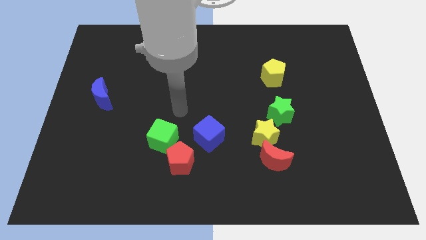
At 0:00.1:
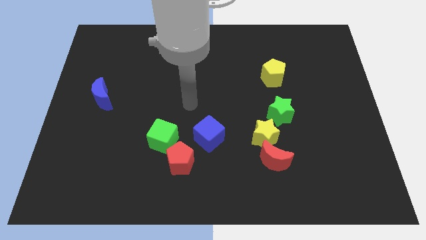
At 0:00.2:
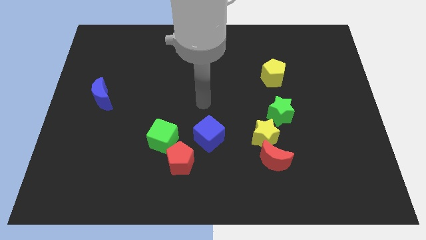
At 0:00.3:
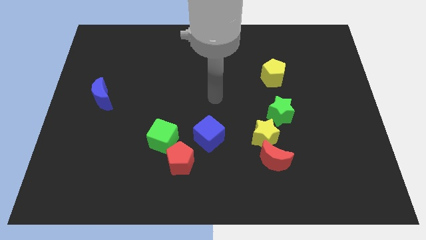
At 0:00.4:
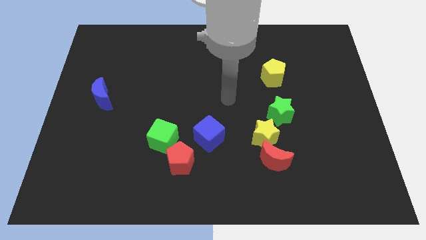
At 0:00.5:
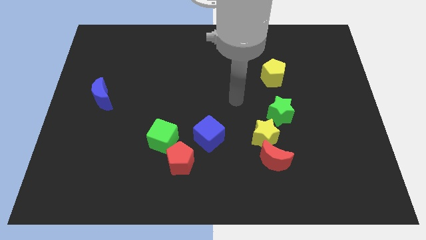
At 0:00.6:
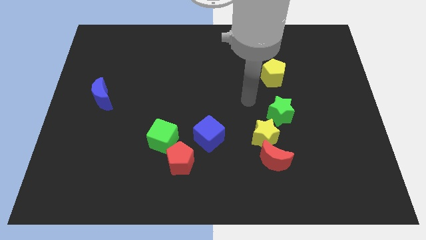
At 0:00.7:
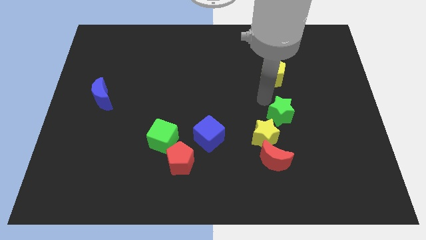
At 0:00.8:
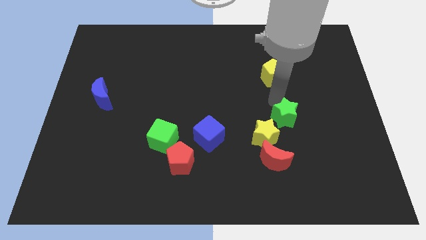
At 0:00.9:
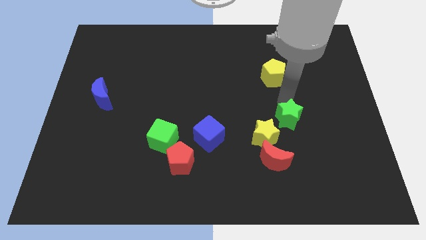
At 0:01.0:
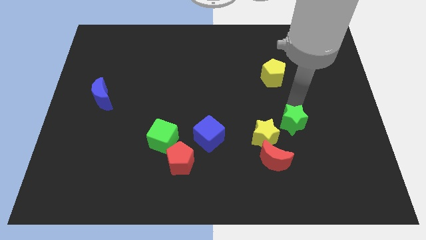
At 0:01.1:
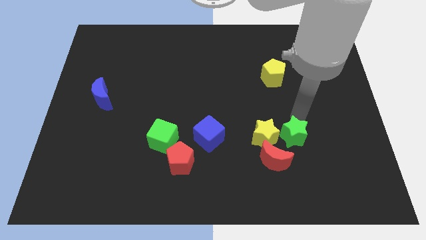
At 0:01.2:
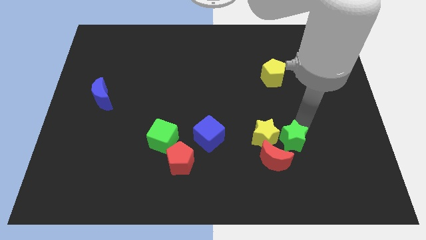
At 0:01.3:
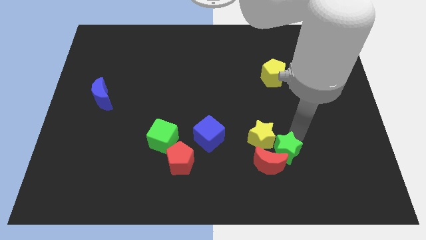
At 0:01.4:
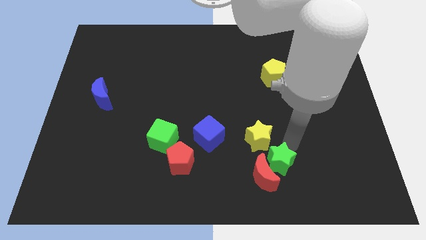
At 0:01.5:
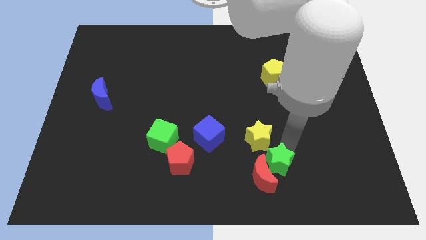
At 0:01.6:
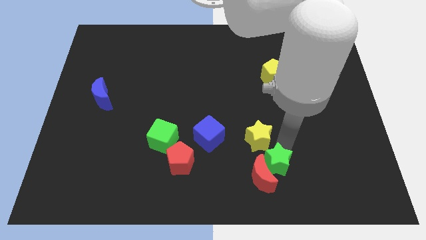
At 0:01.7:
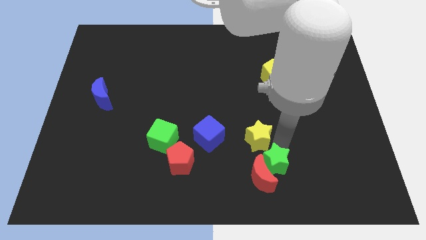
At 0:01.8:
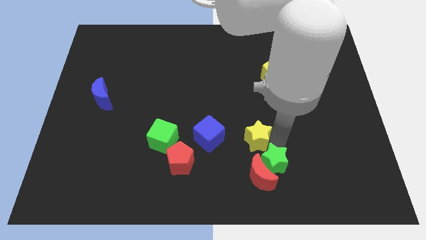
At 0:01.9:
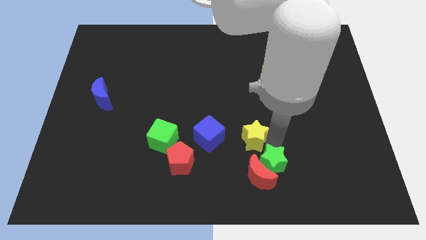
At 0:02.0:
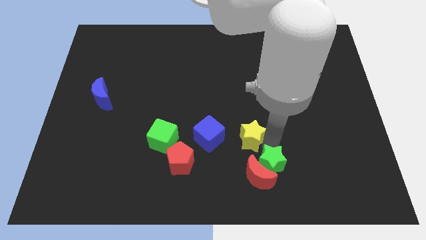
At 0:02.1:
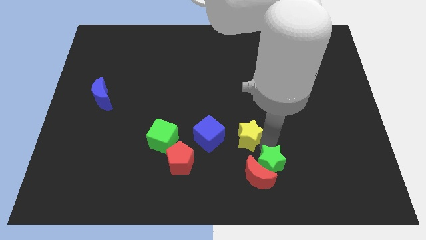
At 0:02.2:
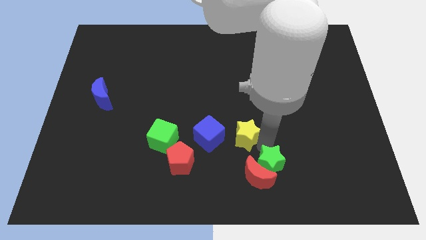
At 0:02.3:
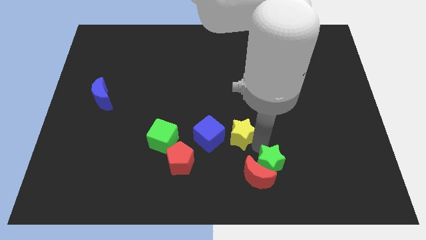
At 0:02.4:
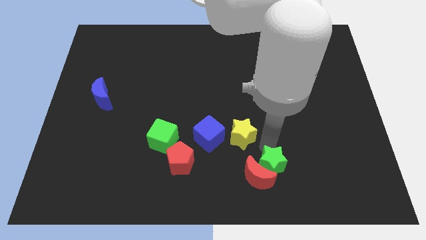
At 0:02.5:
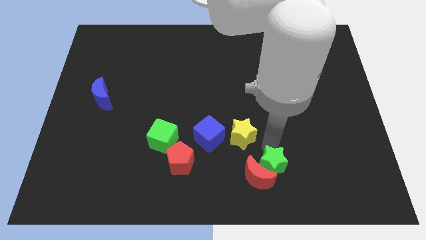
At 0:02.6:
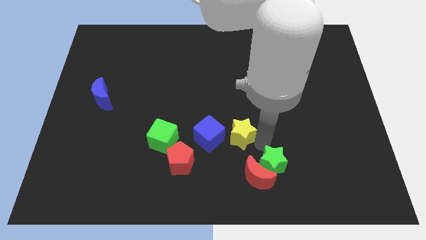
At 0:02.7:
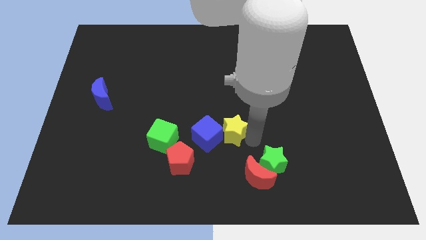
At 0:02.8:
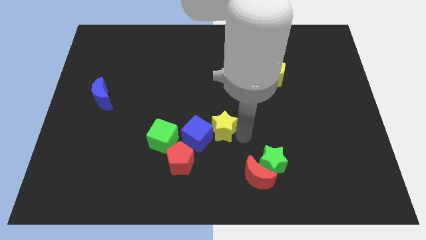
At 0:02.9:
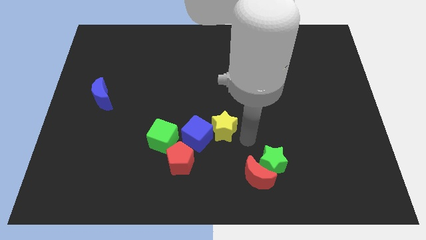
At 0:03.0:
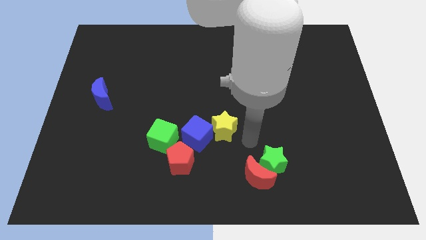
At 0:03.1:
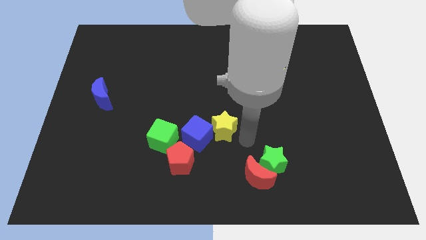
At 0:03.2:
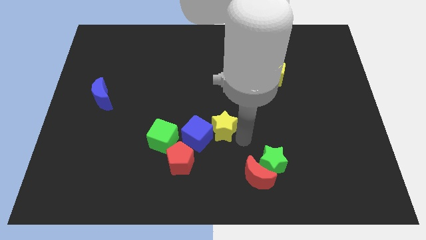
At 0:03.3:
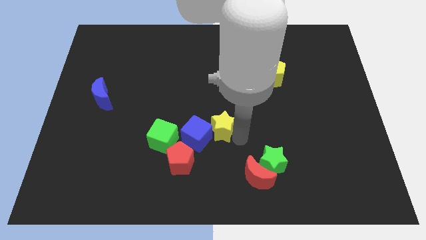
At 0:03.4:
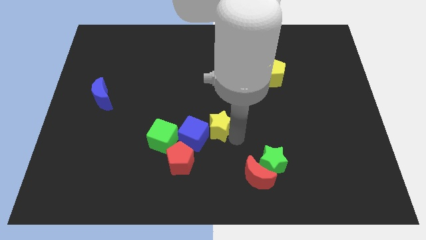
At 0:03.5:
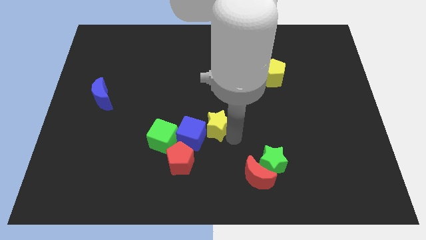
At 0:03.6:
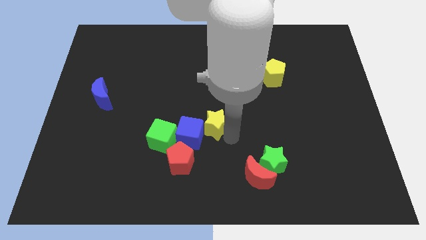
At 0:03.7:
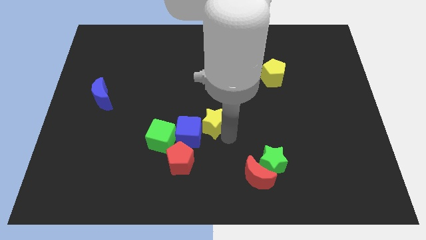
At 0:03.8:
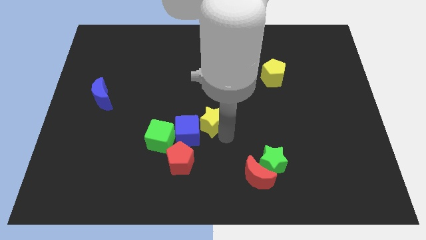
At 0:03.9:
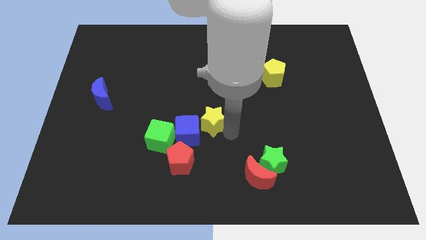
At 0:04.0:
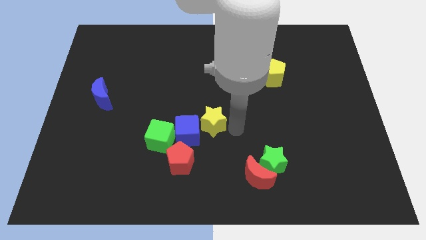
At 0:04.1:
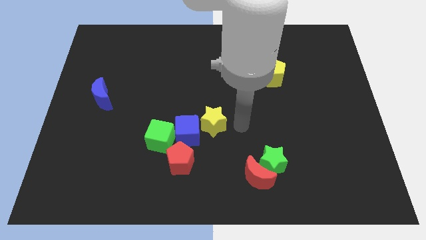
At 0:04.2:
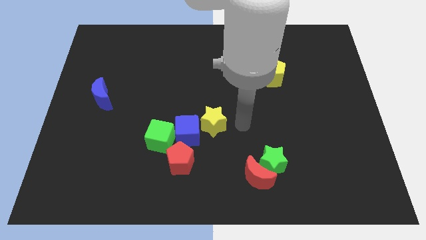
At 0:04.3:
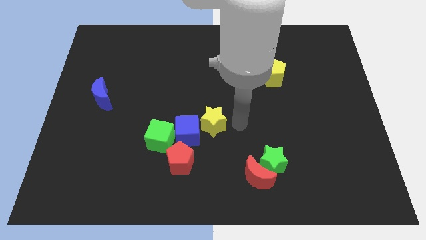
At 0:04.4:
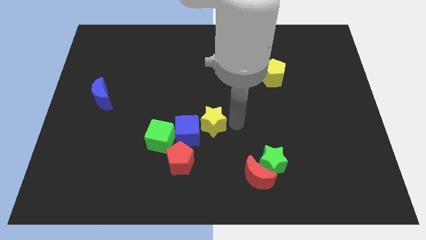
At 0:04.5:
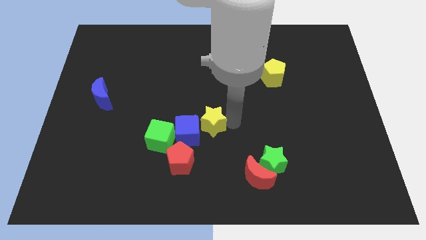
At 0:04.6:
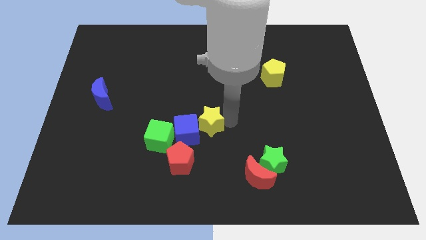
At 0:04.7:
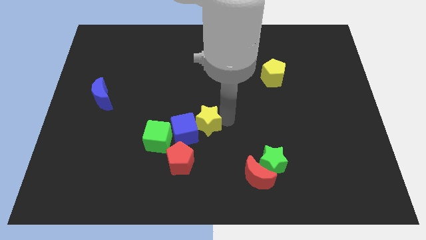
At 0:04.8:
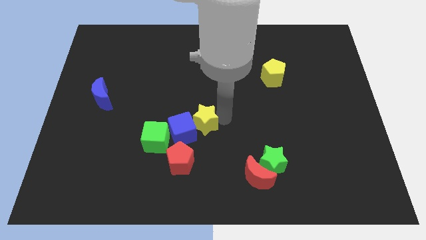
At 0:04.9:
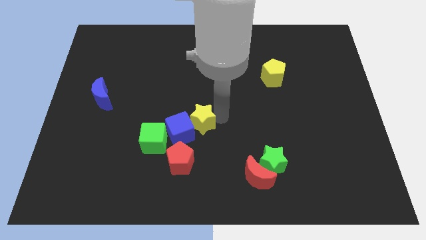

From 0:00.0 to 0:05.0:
push the yellow star above the red pentagon

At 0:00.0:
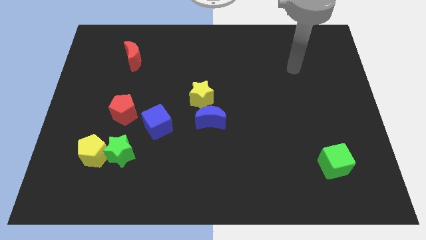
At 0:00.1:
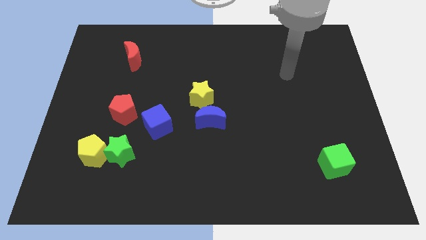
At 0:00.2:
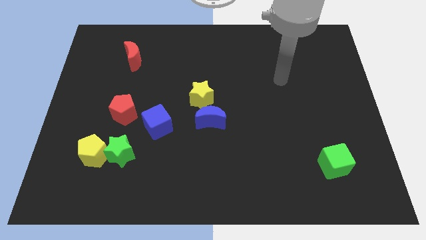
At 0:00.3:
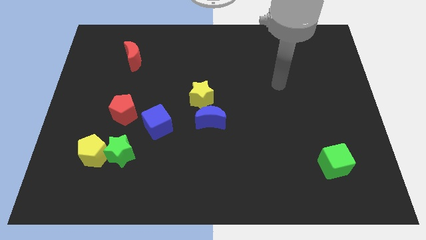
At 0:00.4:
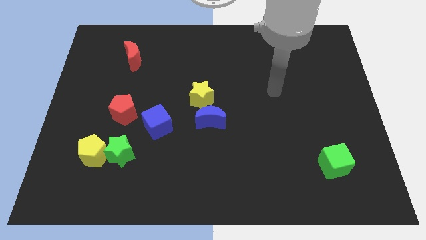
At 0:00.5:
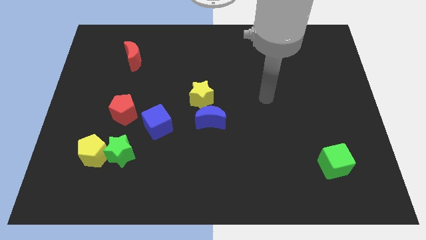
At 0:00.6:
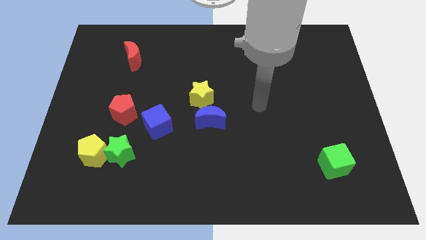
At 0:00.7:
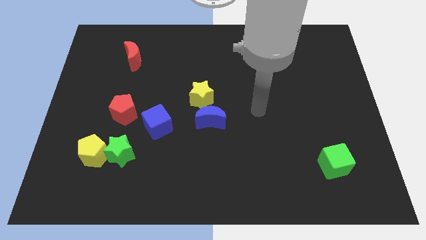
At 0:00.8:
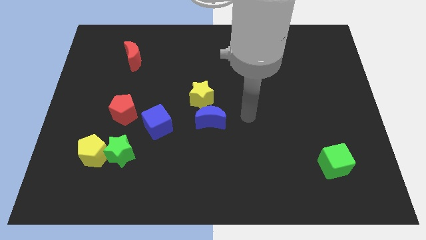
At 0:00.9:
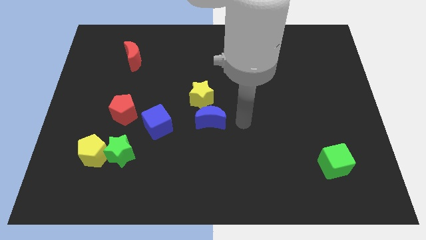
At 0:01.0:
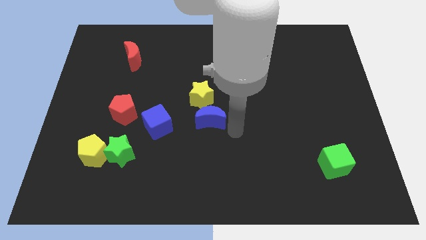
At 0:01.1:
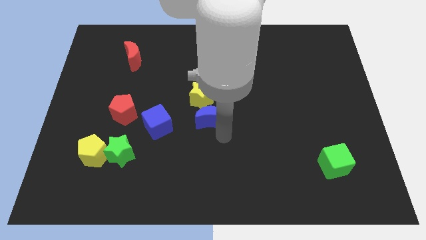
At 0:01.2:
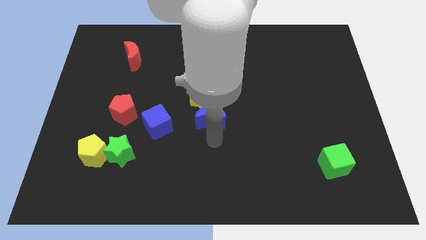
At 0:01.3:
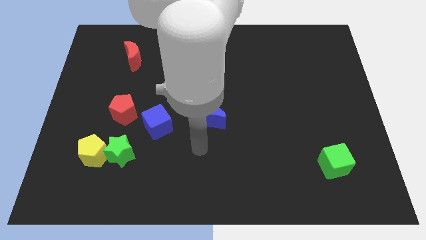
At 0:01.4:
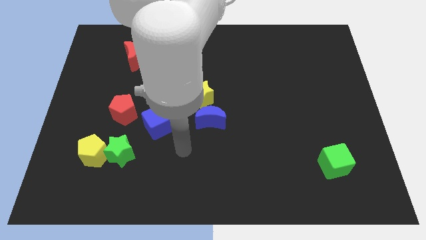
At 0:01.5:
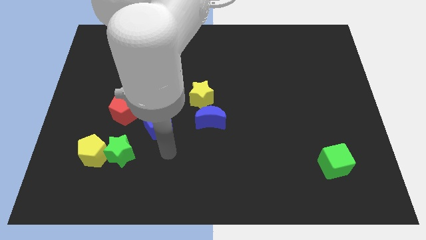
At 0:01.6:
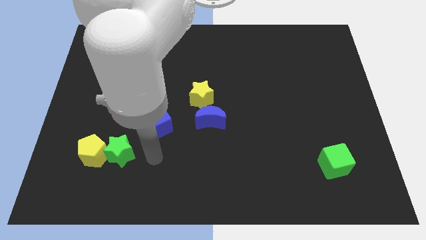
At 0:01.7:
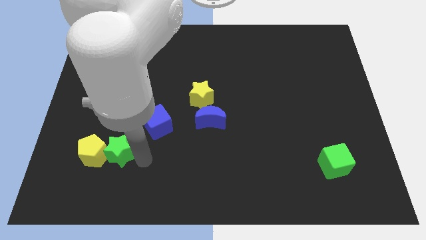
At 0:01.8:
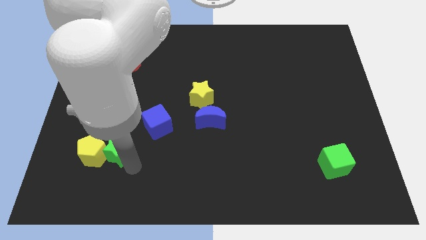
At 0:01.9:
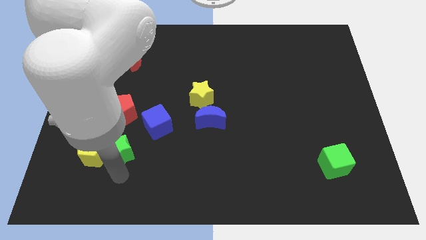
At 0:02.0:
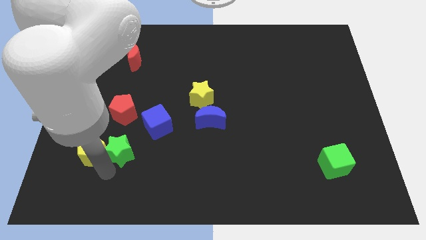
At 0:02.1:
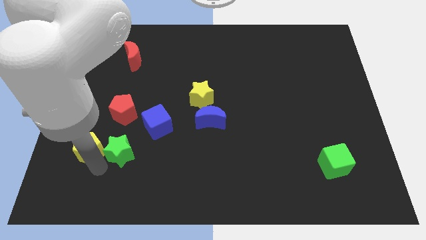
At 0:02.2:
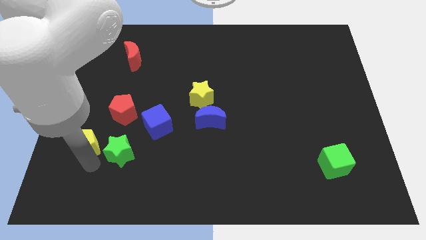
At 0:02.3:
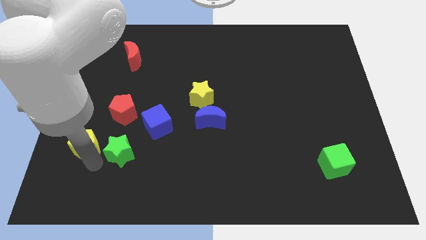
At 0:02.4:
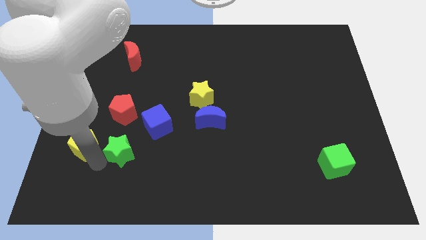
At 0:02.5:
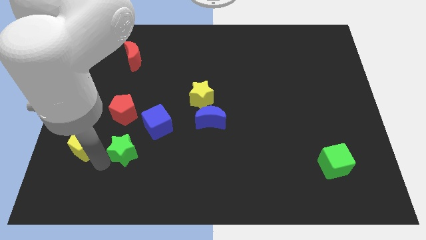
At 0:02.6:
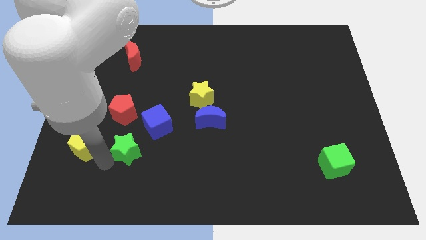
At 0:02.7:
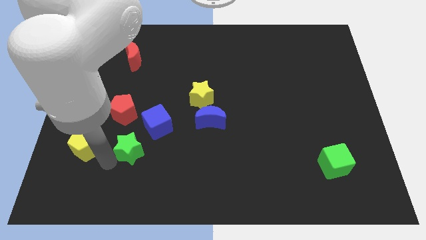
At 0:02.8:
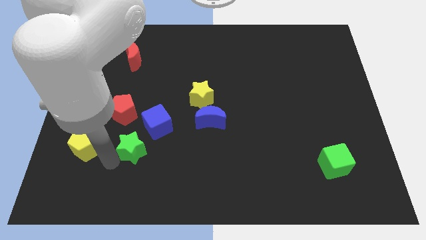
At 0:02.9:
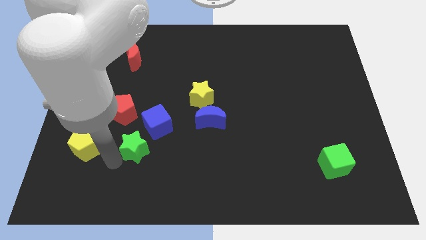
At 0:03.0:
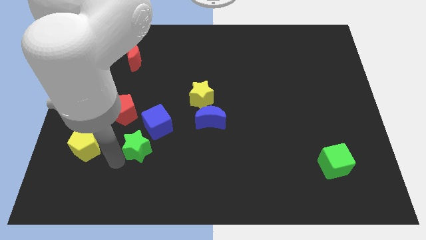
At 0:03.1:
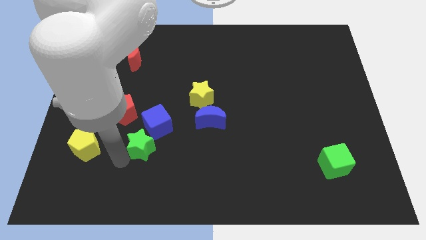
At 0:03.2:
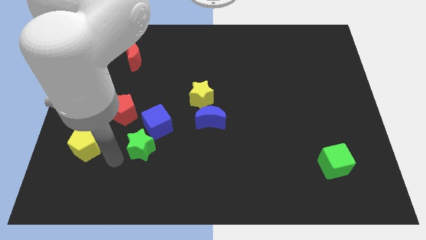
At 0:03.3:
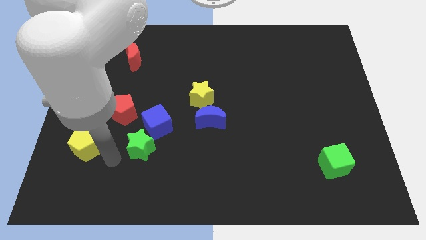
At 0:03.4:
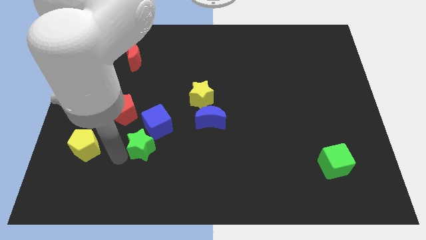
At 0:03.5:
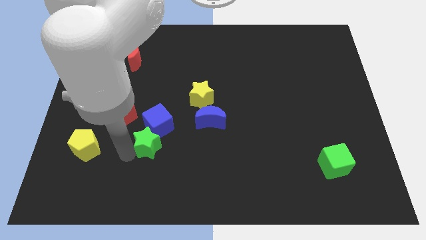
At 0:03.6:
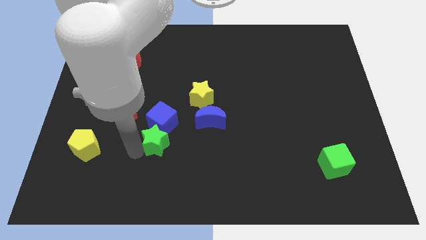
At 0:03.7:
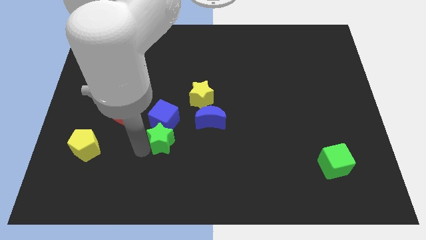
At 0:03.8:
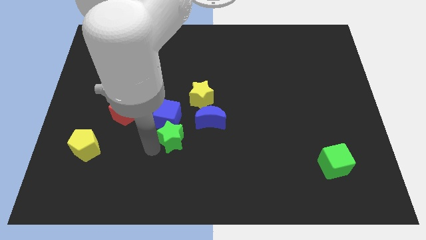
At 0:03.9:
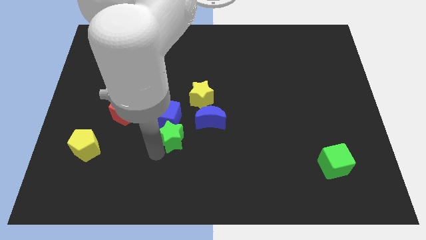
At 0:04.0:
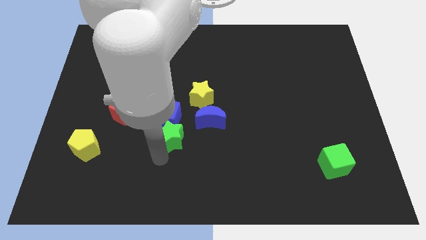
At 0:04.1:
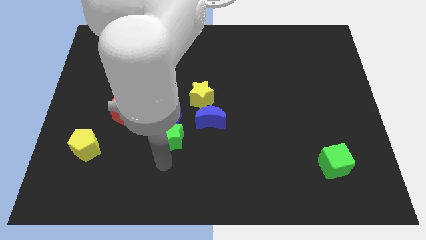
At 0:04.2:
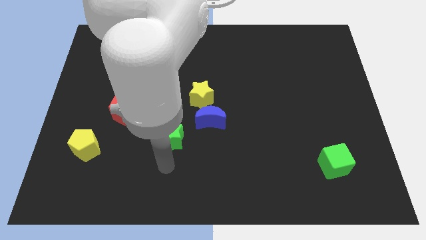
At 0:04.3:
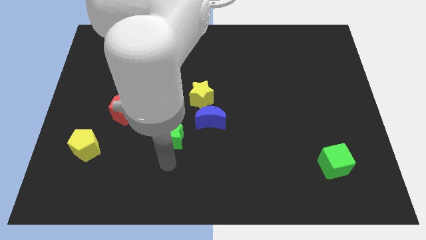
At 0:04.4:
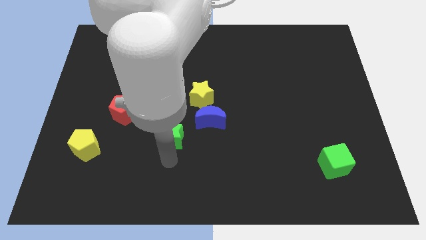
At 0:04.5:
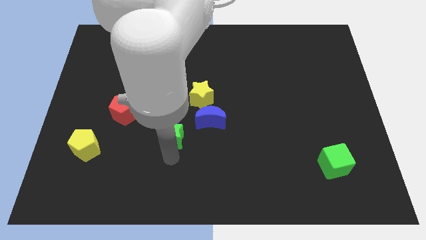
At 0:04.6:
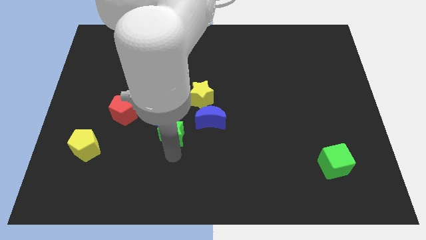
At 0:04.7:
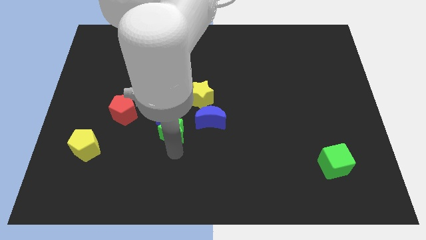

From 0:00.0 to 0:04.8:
push the green star to the bottom left of the yellow star
